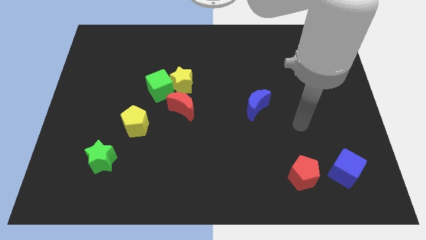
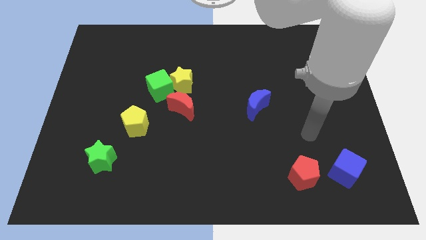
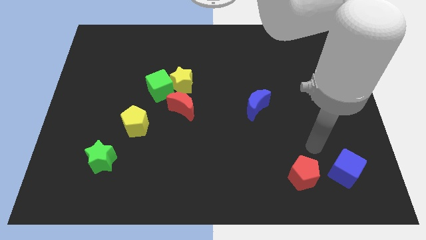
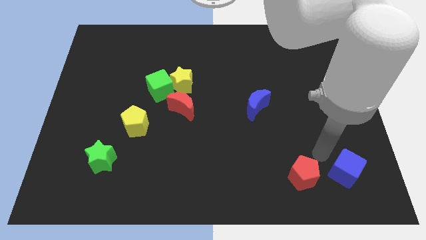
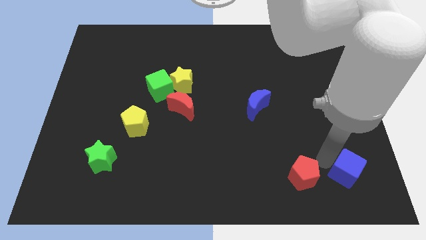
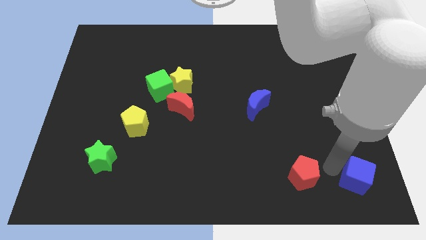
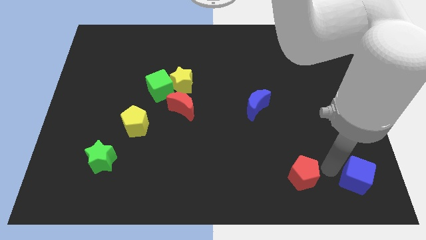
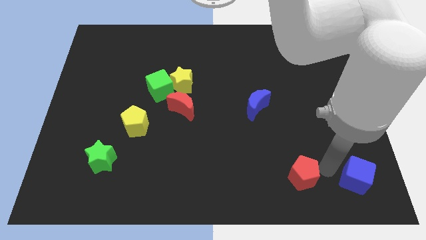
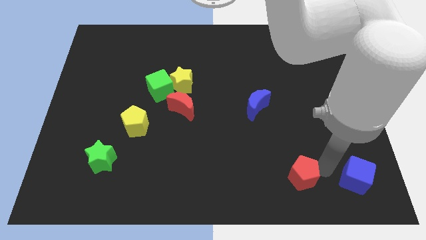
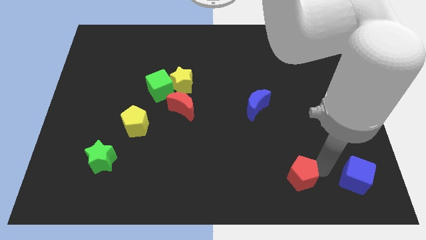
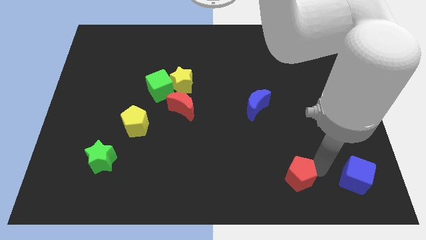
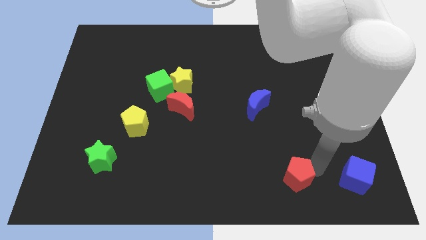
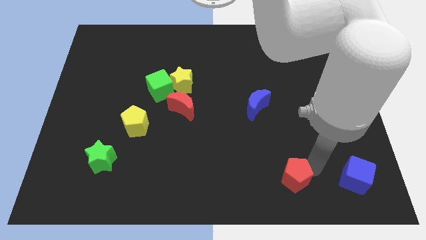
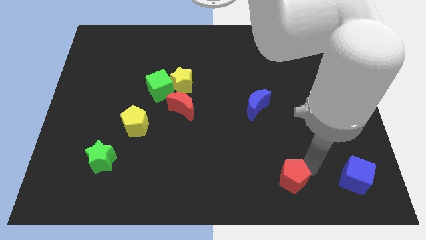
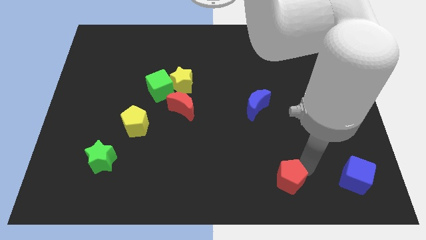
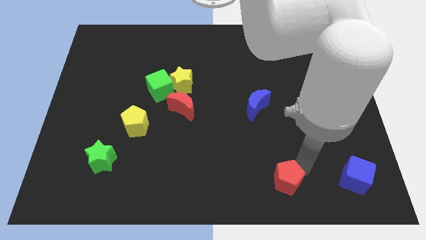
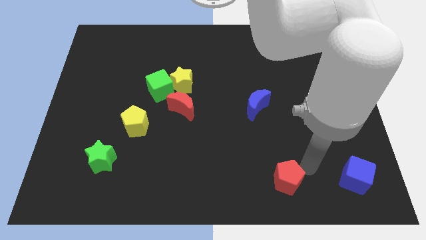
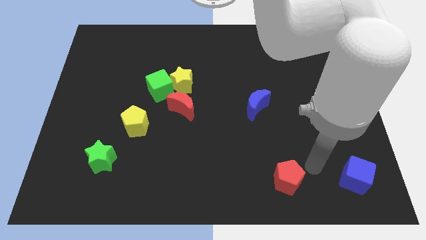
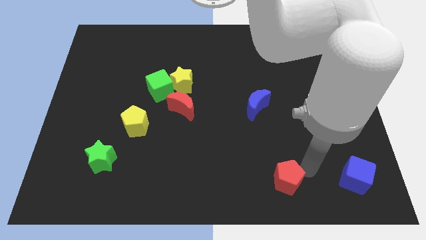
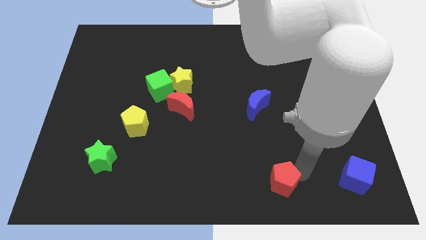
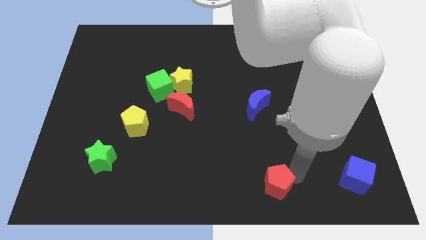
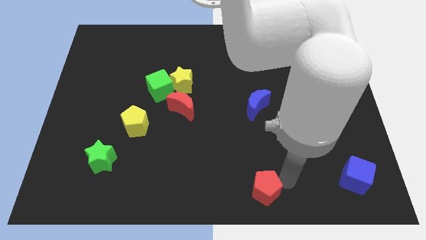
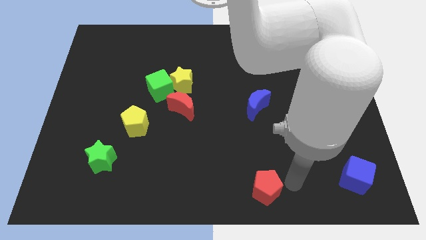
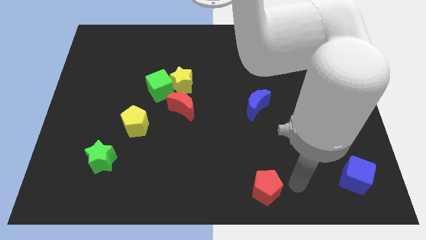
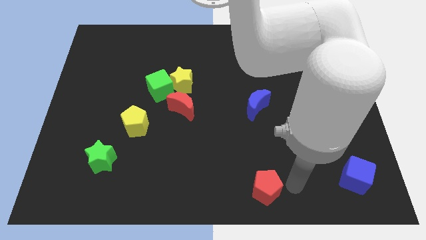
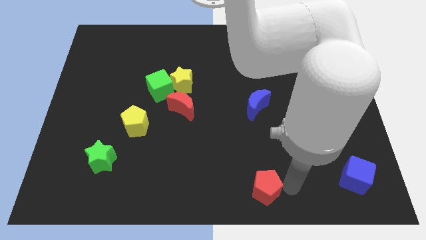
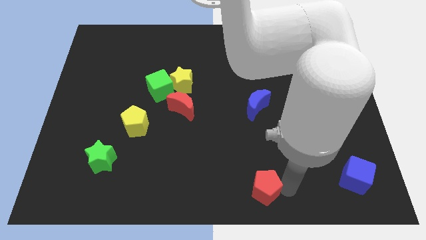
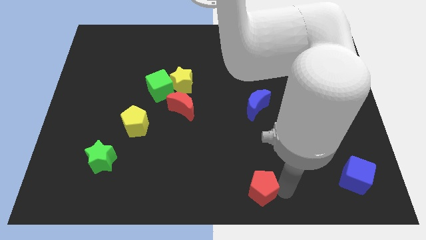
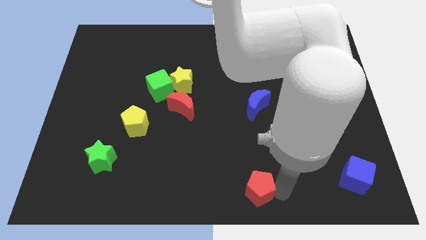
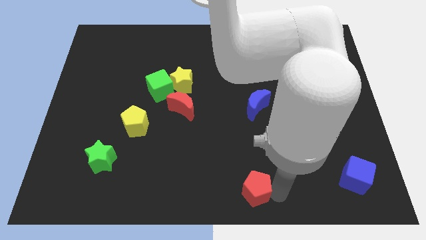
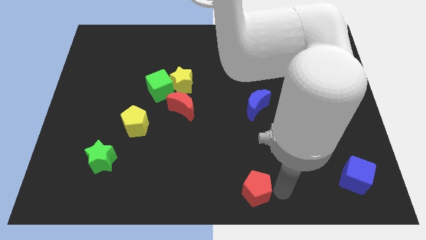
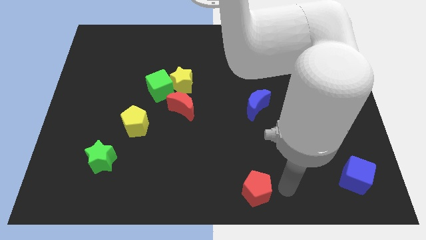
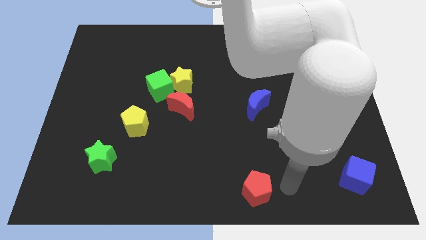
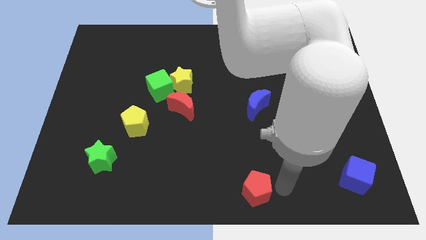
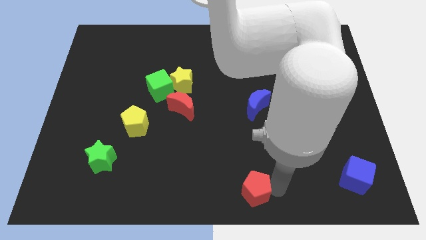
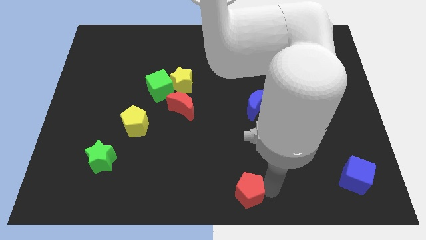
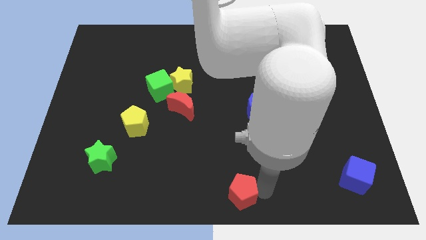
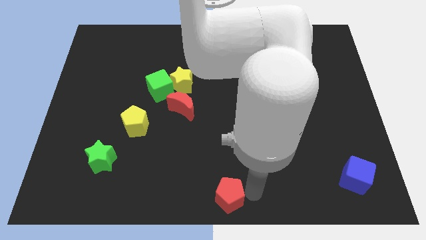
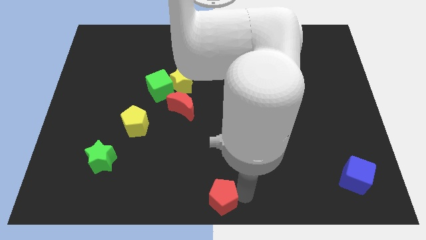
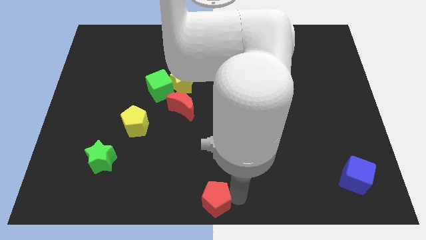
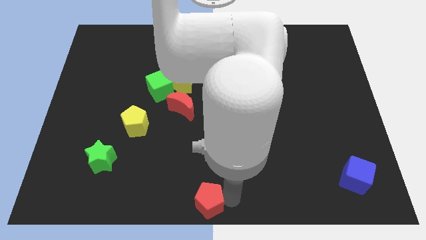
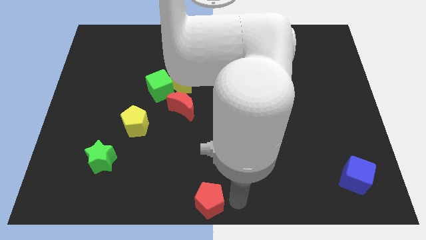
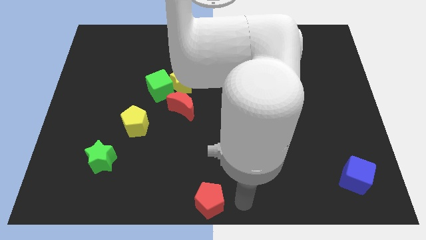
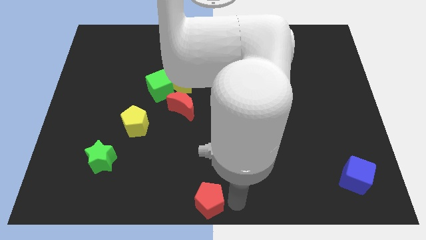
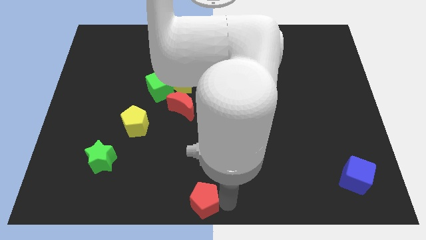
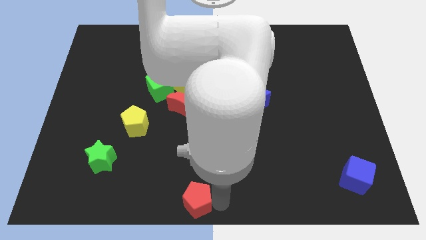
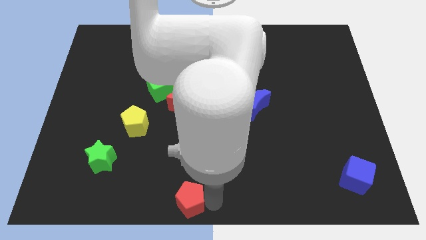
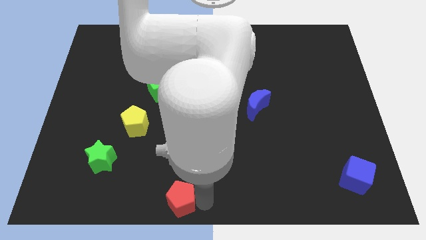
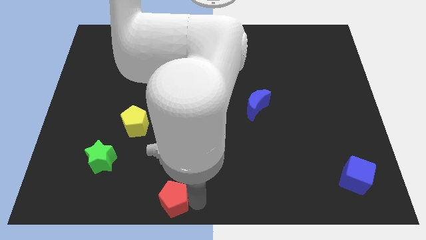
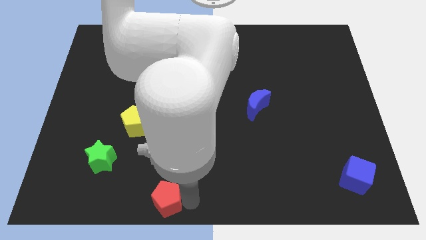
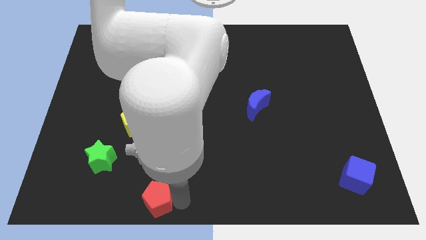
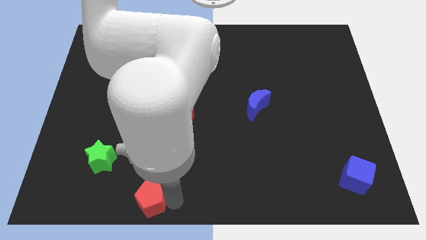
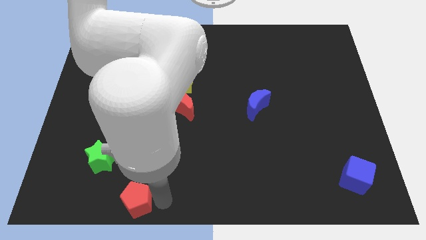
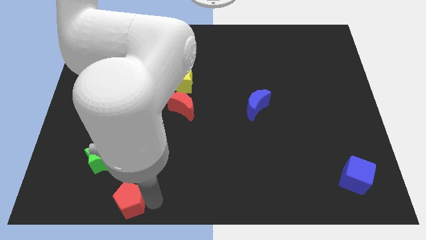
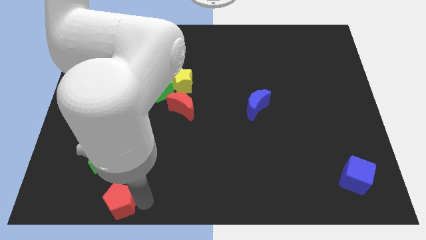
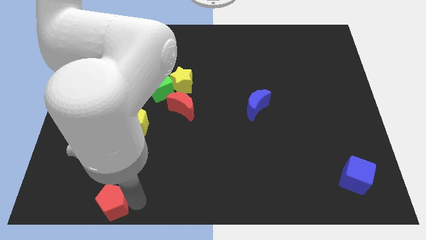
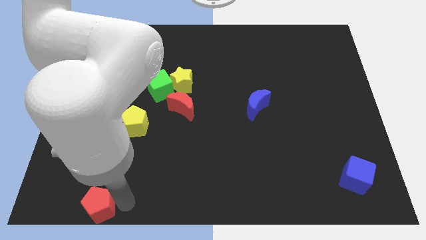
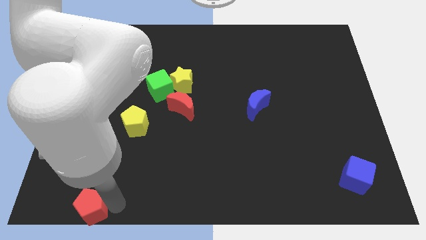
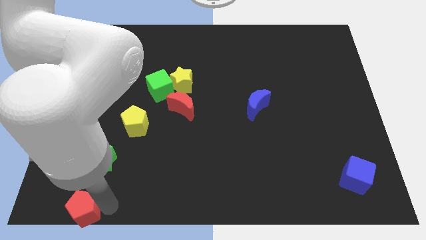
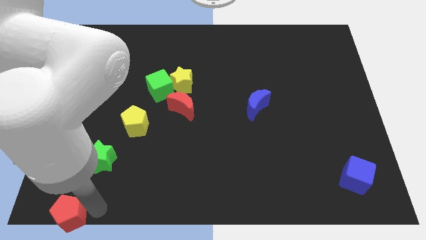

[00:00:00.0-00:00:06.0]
slide the red pentagon to the lower left corner

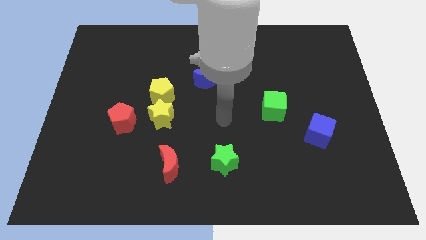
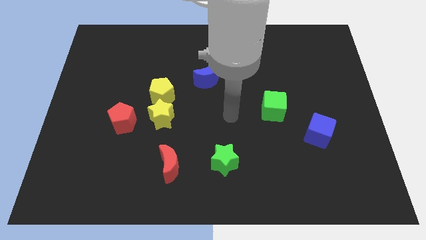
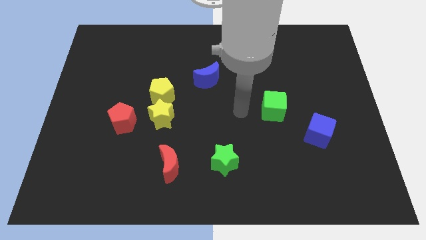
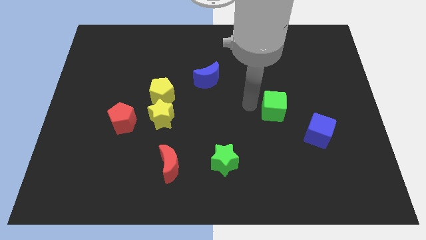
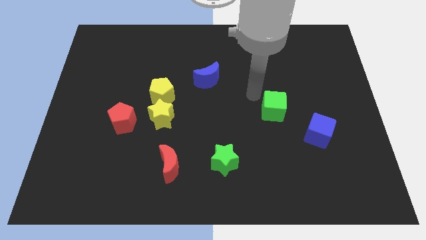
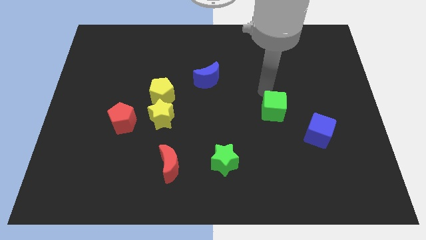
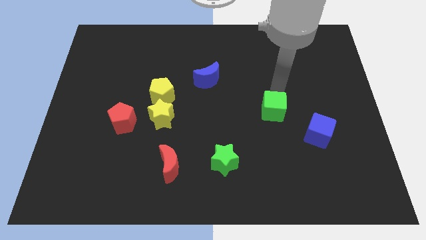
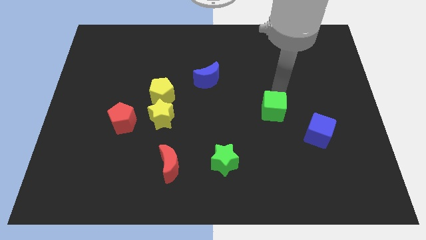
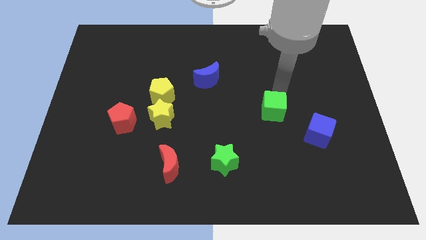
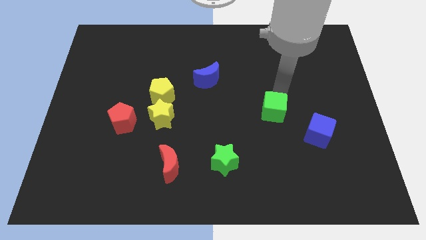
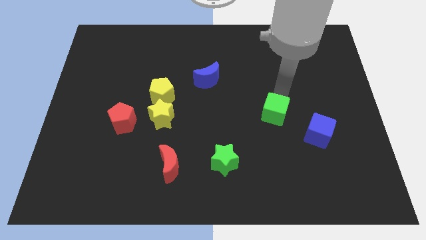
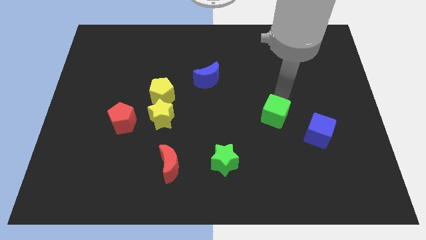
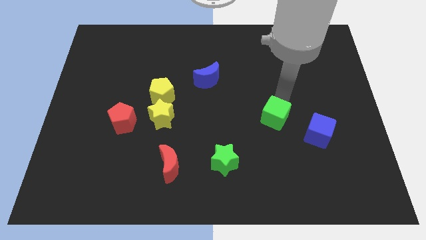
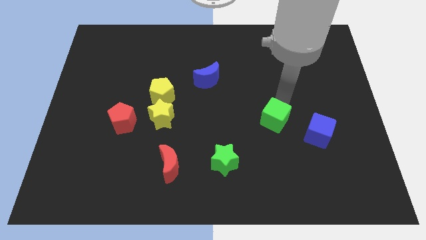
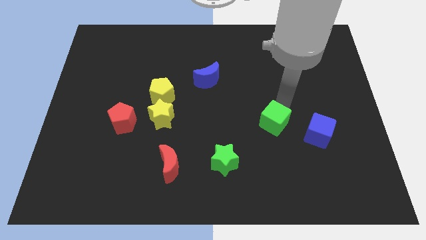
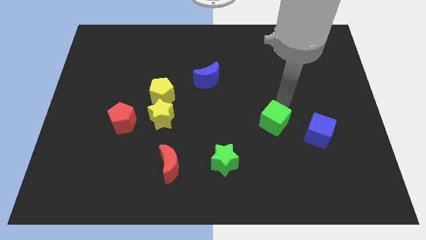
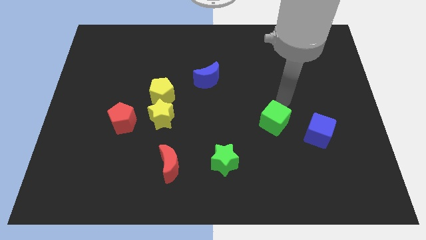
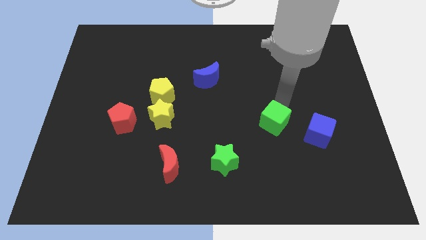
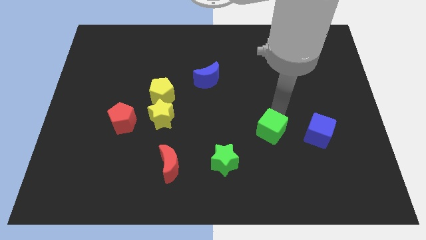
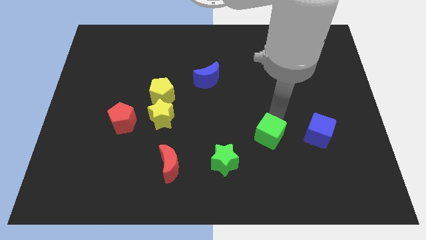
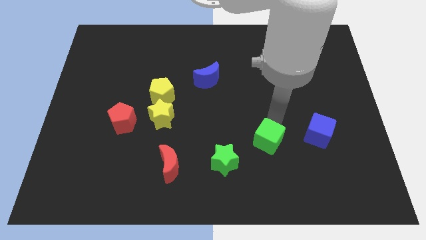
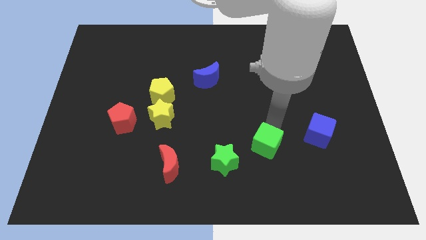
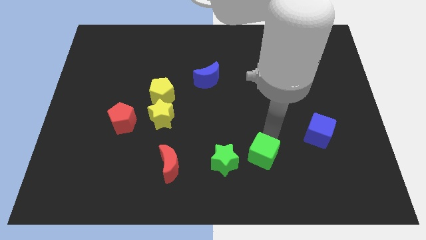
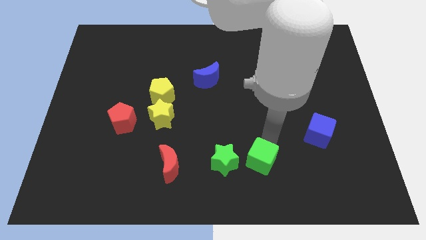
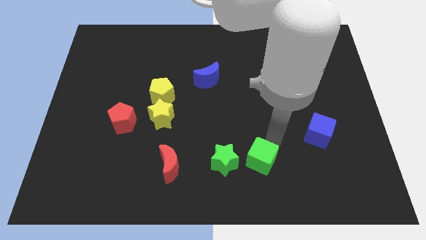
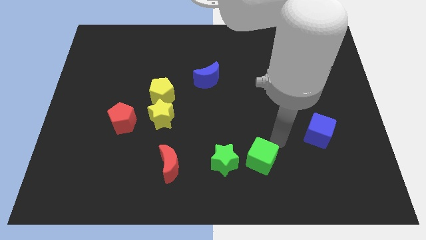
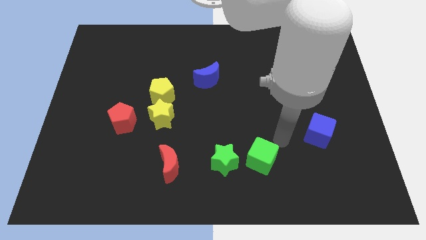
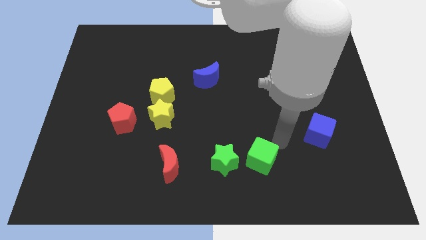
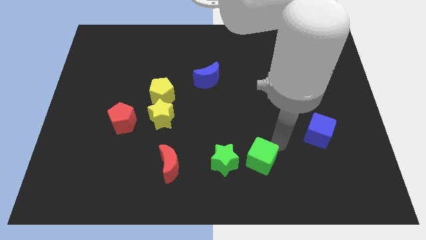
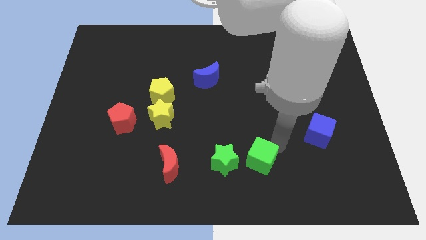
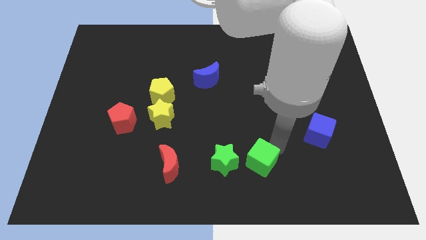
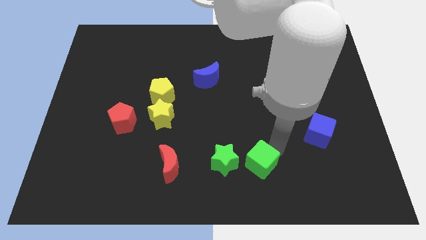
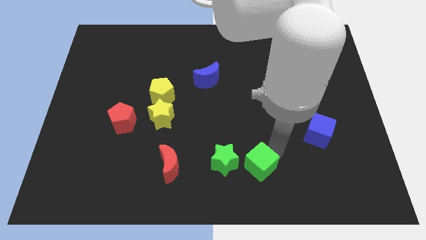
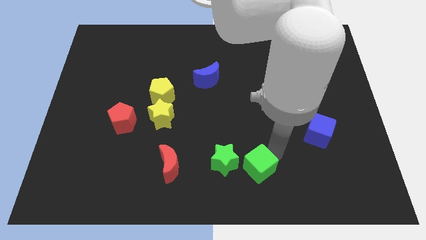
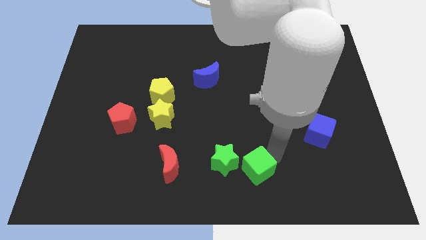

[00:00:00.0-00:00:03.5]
slide the green cube to the bottom
